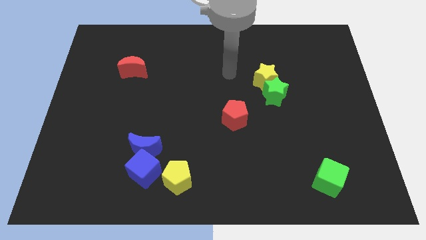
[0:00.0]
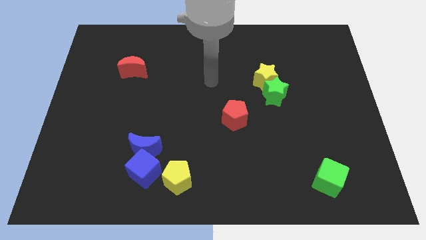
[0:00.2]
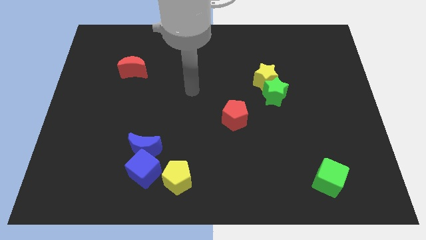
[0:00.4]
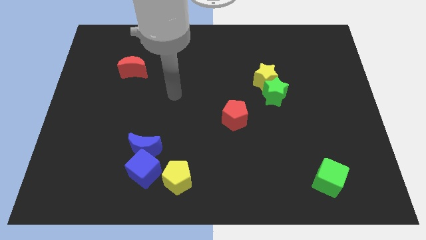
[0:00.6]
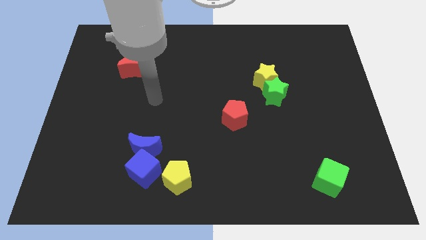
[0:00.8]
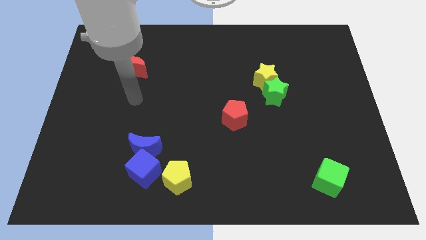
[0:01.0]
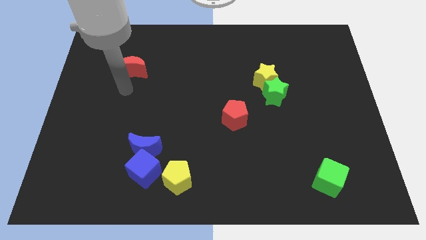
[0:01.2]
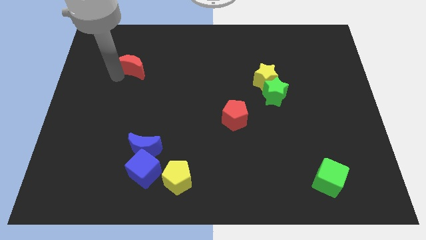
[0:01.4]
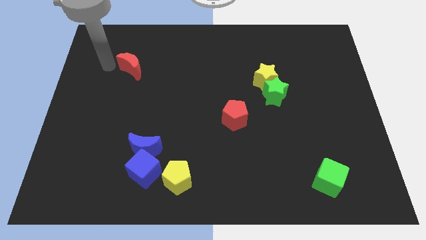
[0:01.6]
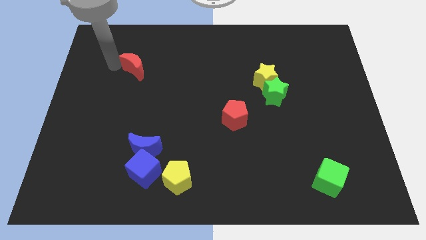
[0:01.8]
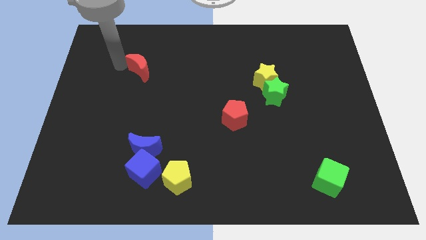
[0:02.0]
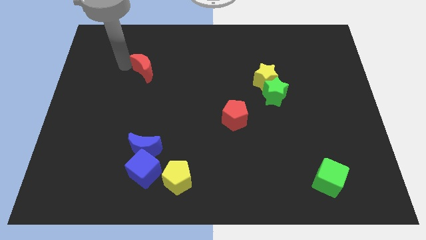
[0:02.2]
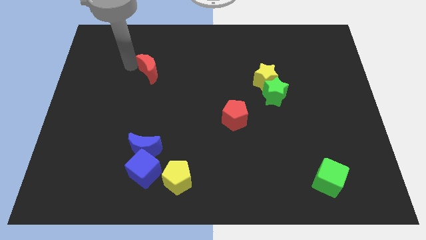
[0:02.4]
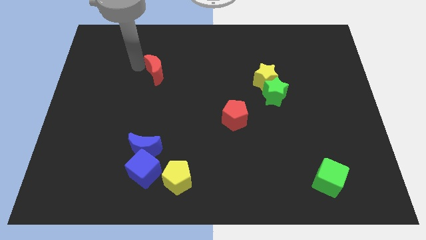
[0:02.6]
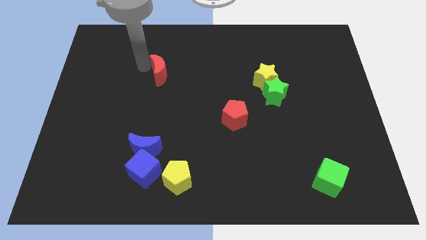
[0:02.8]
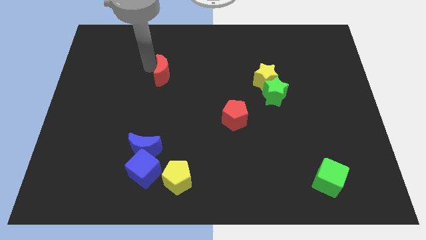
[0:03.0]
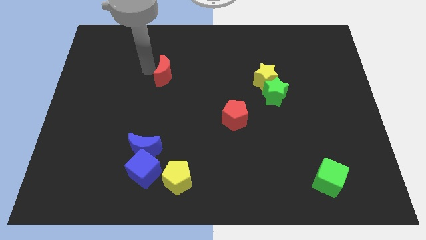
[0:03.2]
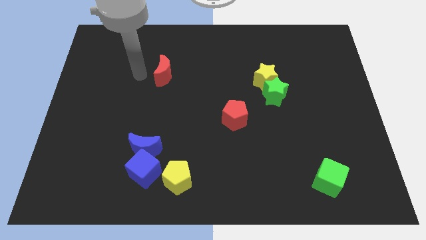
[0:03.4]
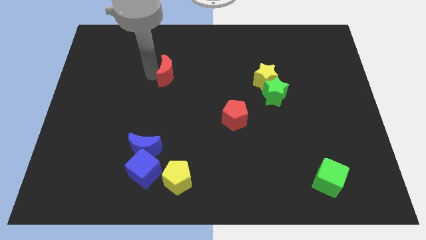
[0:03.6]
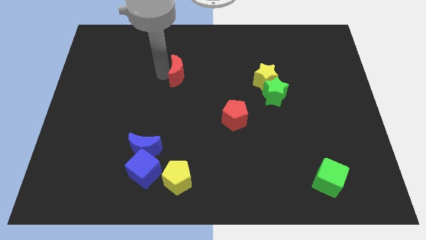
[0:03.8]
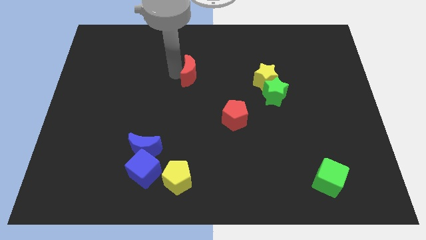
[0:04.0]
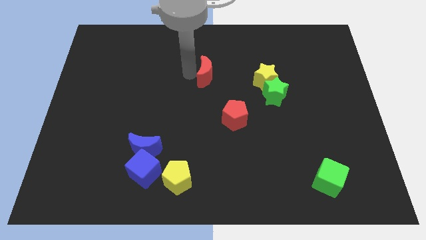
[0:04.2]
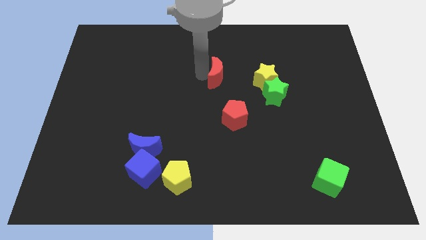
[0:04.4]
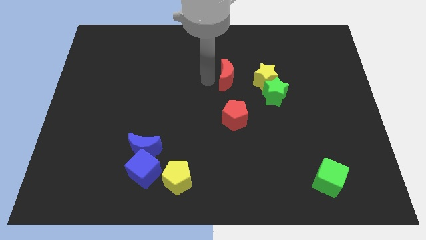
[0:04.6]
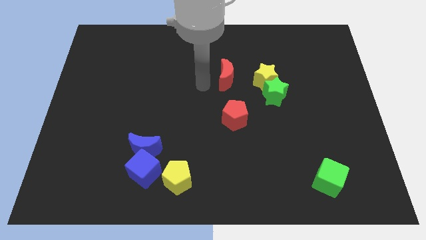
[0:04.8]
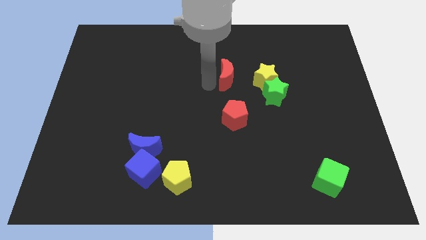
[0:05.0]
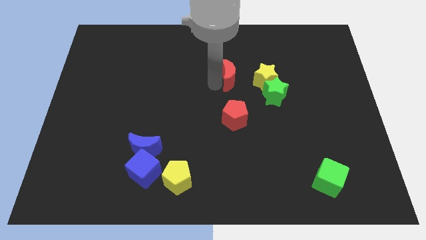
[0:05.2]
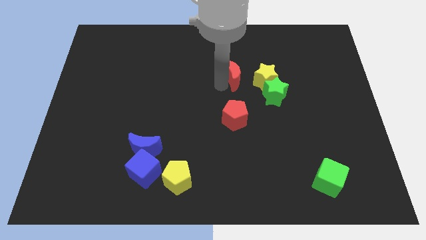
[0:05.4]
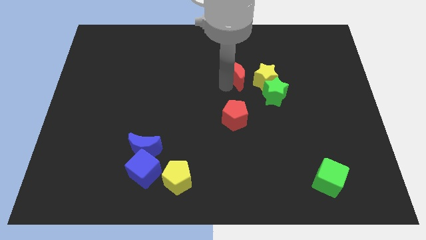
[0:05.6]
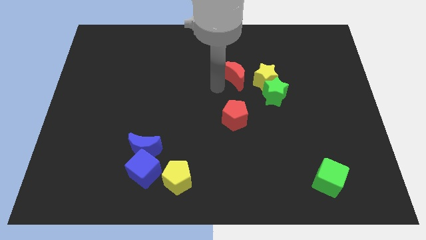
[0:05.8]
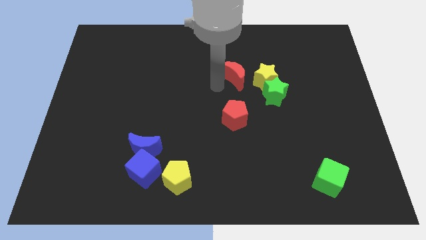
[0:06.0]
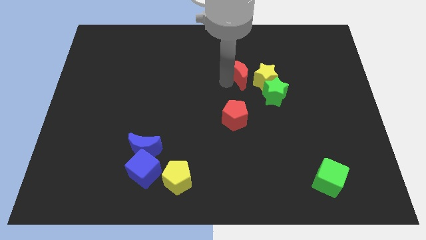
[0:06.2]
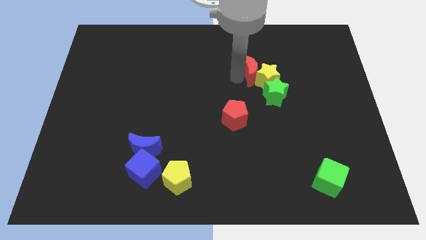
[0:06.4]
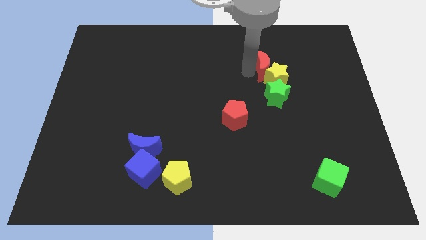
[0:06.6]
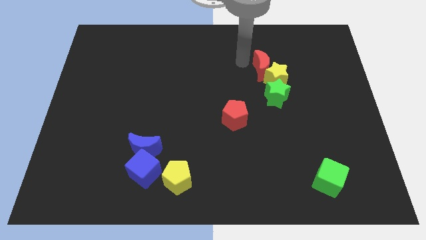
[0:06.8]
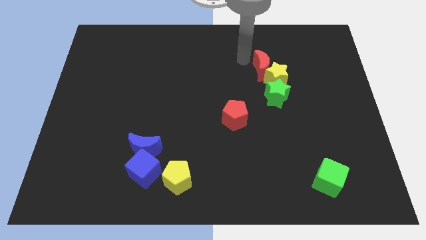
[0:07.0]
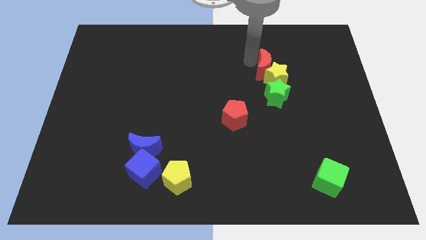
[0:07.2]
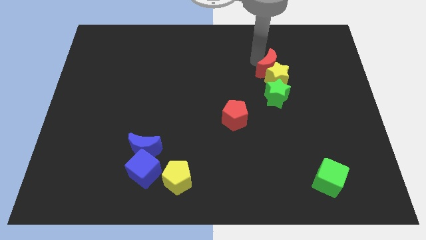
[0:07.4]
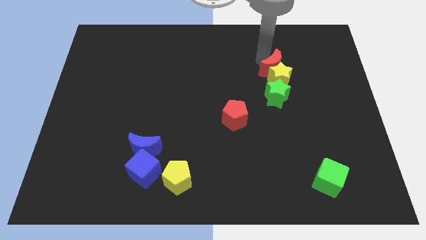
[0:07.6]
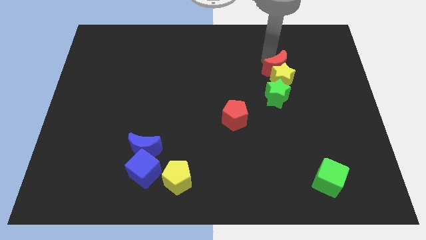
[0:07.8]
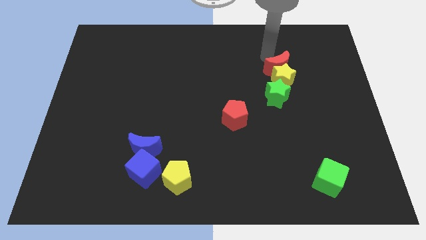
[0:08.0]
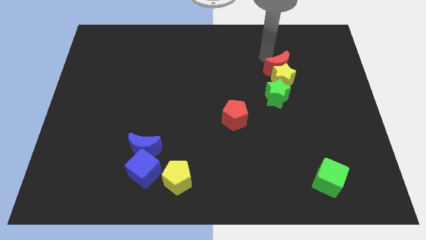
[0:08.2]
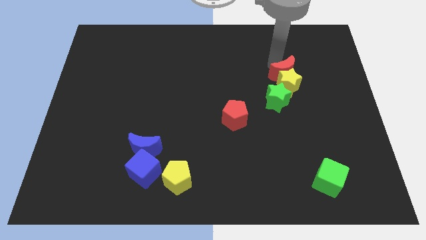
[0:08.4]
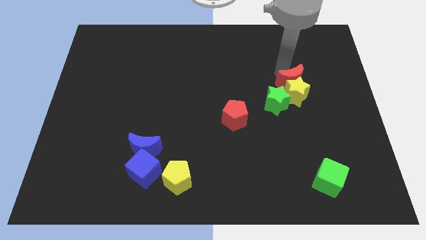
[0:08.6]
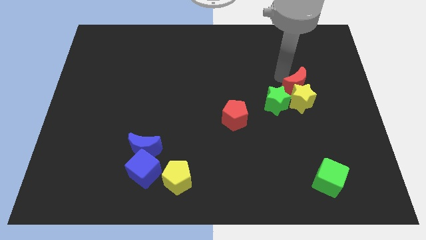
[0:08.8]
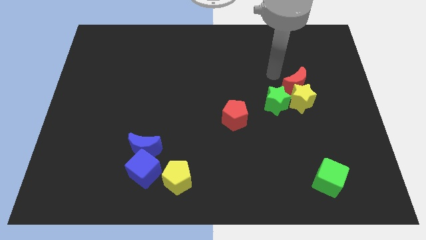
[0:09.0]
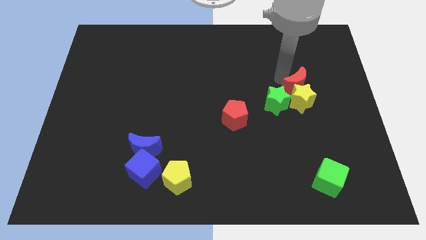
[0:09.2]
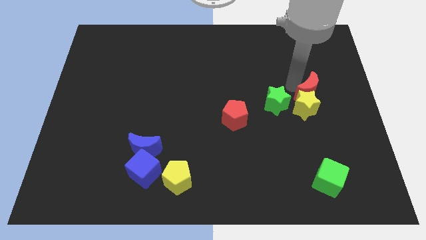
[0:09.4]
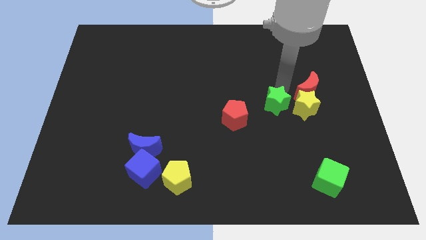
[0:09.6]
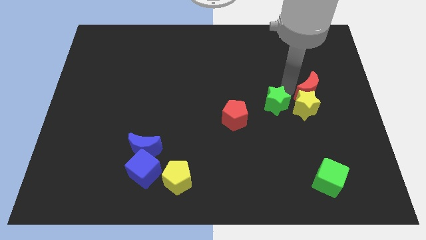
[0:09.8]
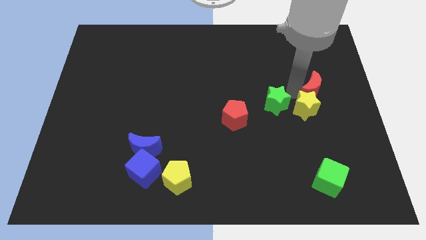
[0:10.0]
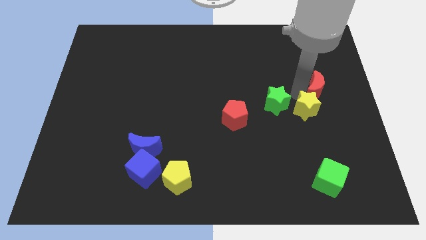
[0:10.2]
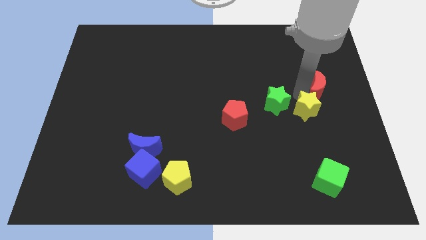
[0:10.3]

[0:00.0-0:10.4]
push the red moon to the right side
